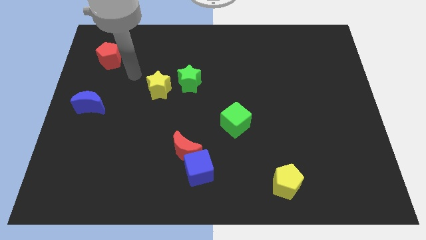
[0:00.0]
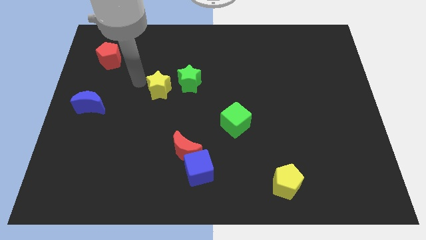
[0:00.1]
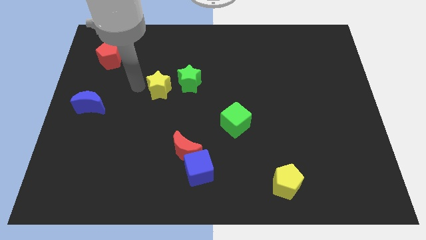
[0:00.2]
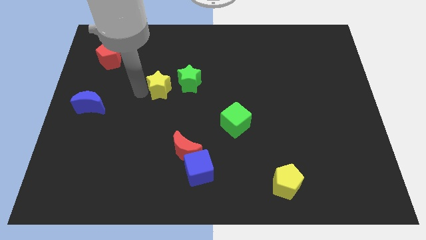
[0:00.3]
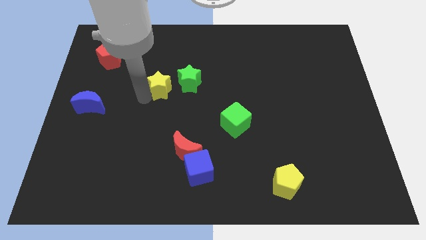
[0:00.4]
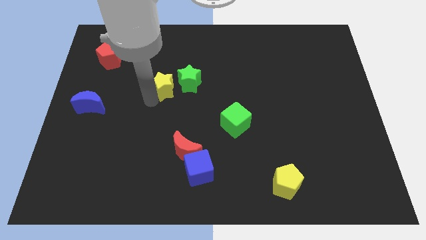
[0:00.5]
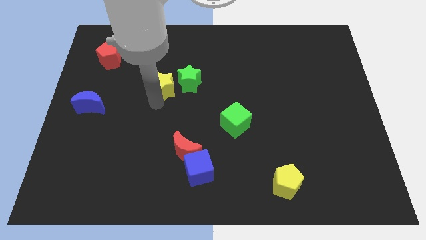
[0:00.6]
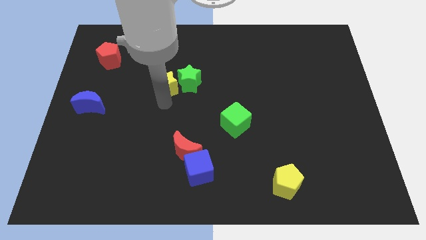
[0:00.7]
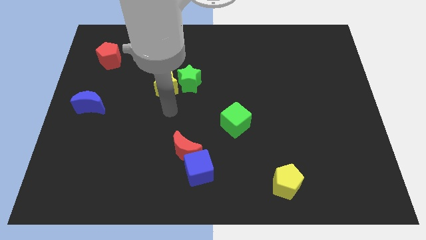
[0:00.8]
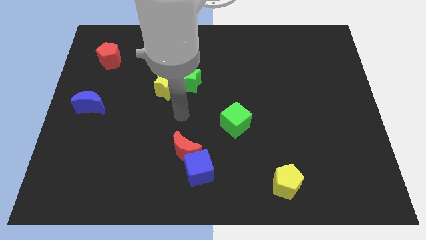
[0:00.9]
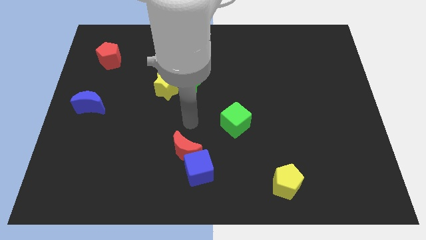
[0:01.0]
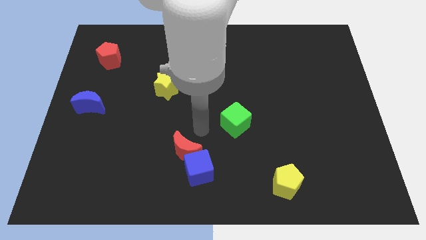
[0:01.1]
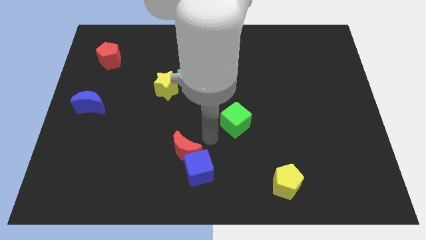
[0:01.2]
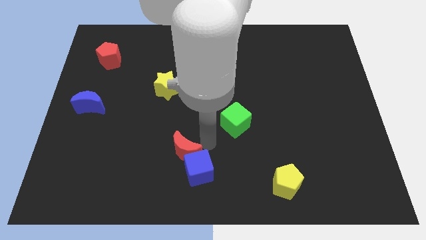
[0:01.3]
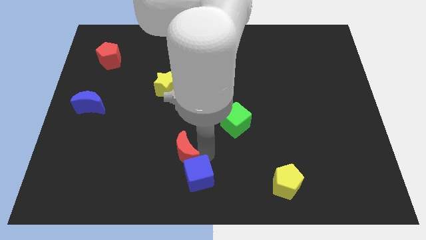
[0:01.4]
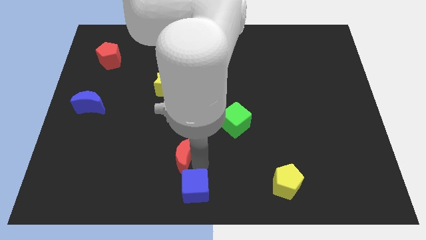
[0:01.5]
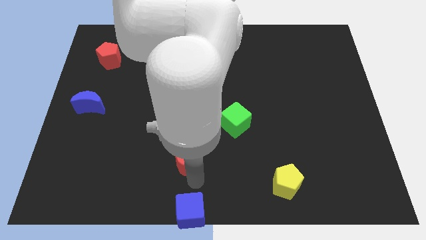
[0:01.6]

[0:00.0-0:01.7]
separate the red moon from the blue cube

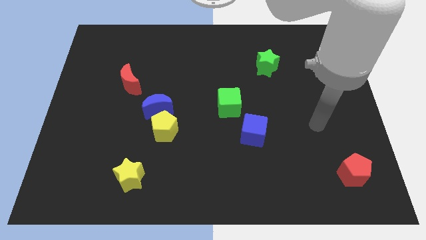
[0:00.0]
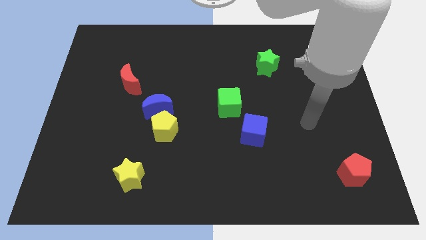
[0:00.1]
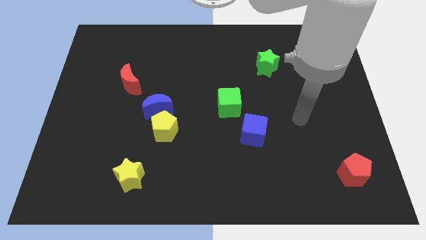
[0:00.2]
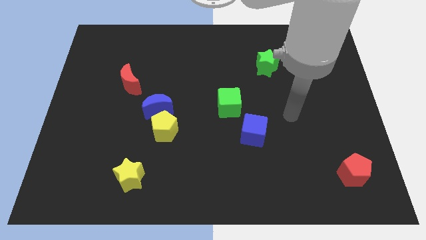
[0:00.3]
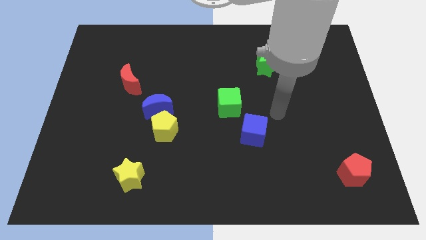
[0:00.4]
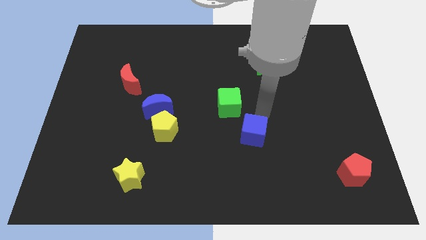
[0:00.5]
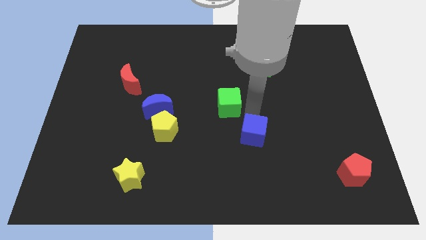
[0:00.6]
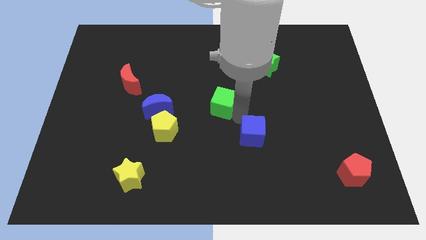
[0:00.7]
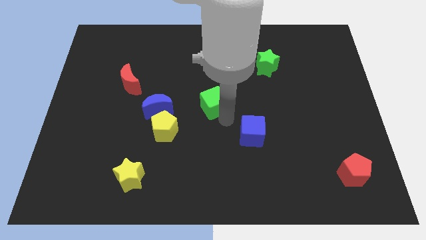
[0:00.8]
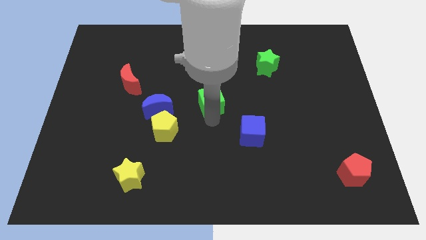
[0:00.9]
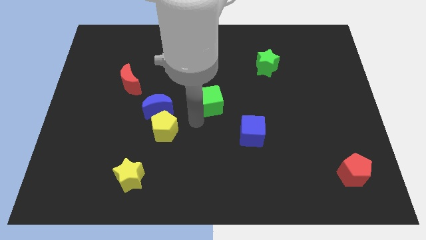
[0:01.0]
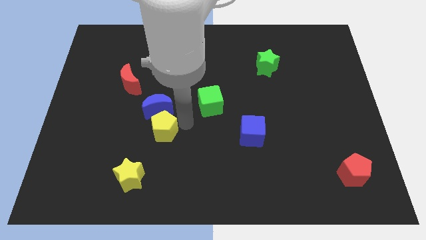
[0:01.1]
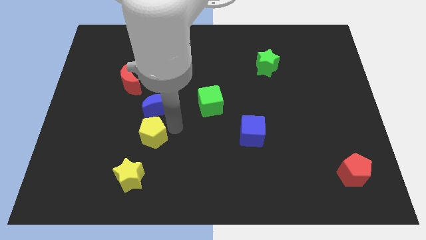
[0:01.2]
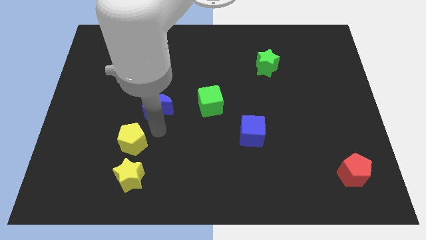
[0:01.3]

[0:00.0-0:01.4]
pull the blue moon apart from the yellow pentagon

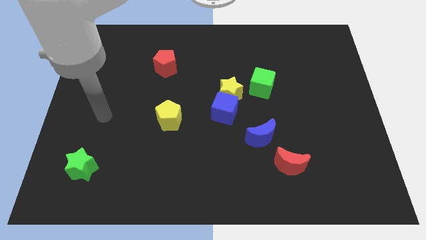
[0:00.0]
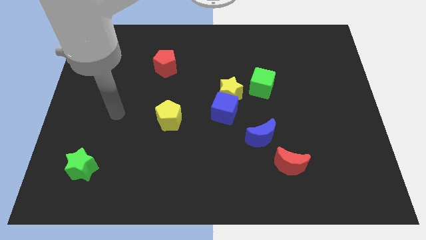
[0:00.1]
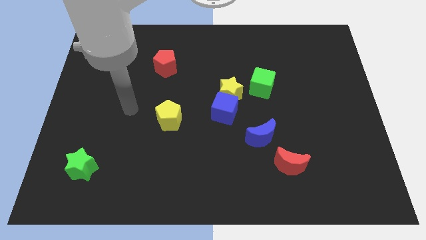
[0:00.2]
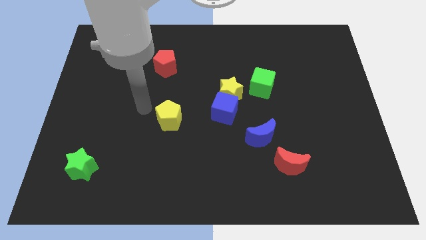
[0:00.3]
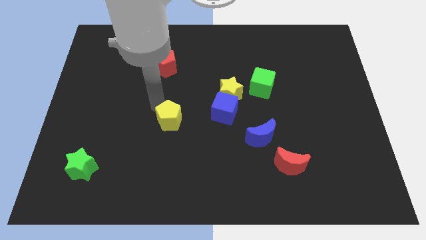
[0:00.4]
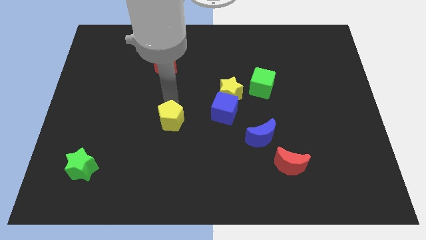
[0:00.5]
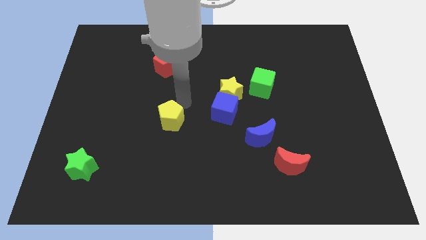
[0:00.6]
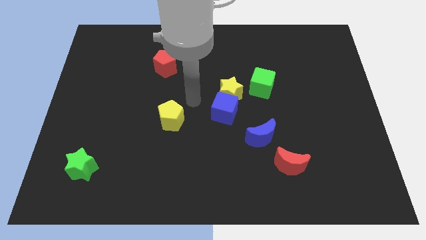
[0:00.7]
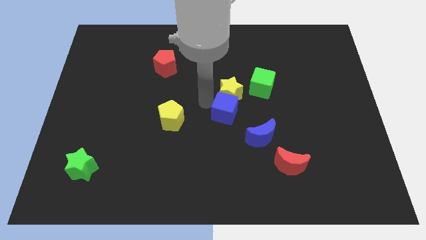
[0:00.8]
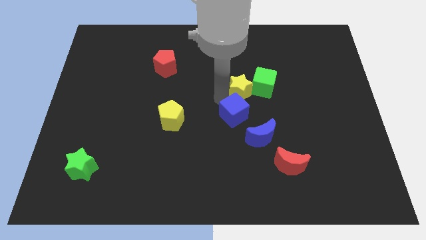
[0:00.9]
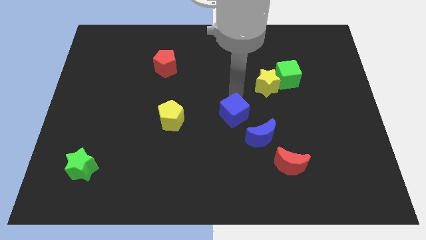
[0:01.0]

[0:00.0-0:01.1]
pull the blue cube apart from the yellow star

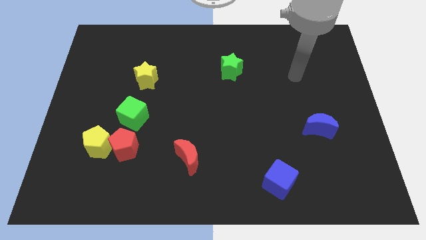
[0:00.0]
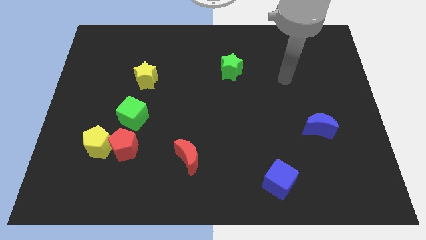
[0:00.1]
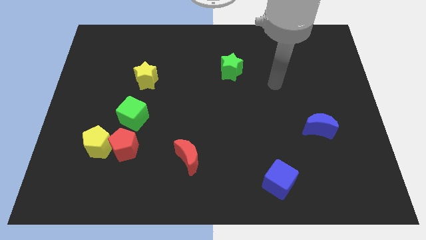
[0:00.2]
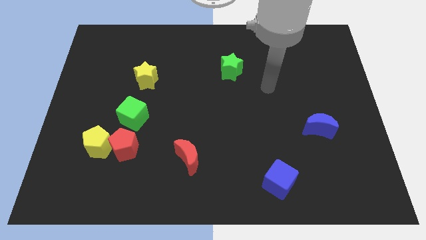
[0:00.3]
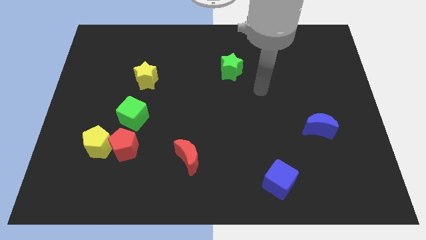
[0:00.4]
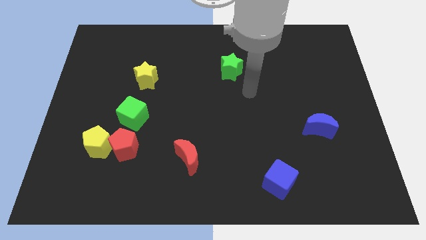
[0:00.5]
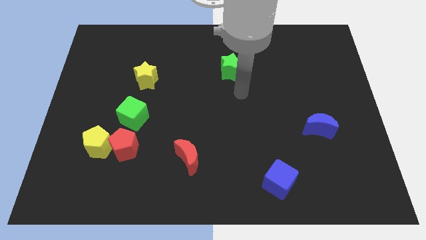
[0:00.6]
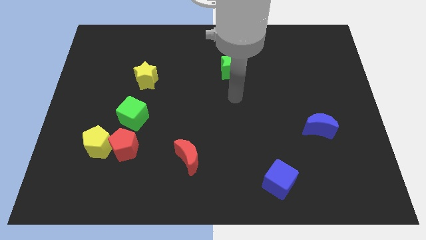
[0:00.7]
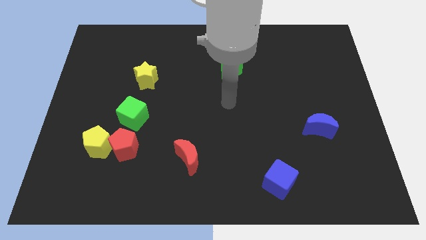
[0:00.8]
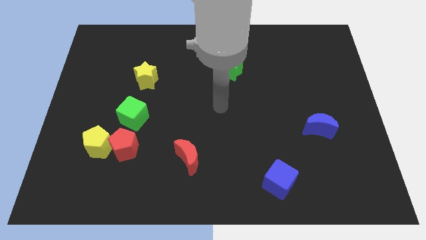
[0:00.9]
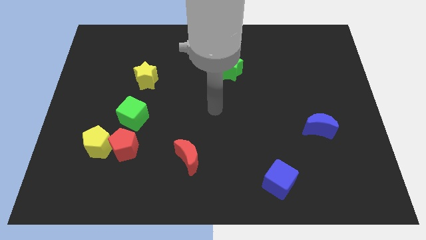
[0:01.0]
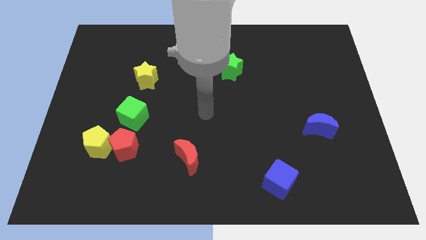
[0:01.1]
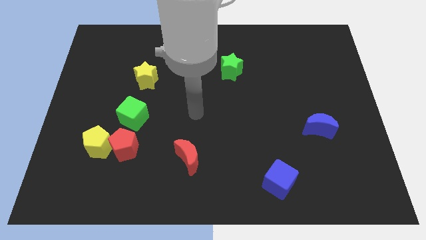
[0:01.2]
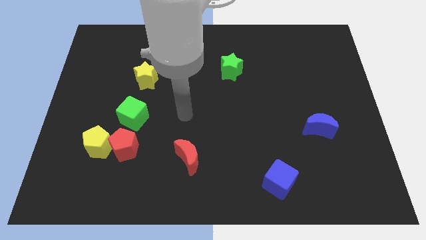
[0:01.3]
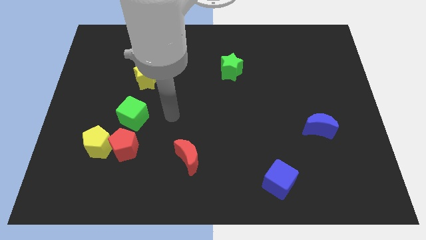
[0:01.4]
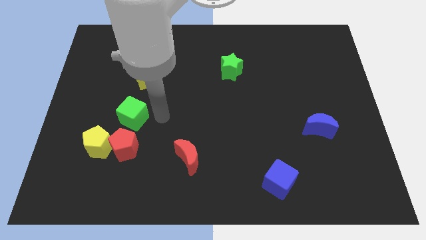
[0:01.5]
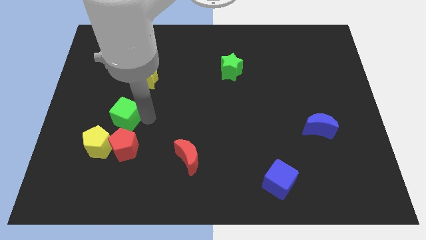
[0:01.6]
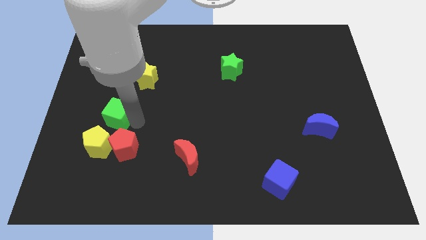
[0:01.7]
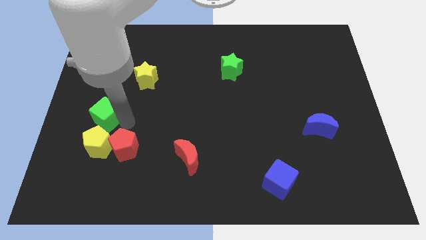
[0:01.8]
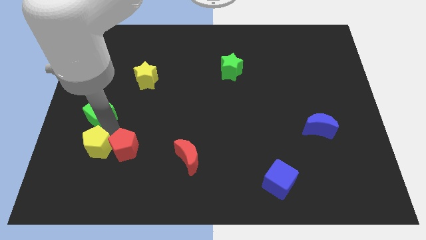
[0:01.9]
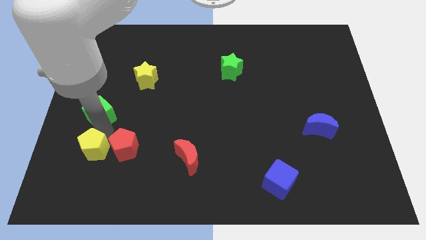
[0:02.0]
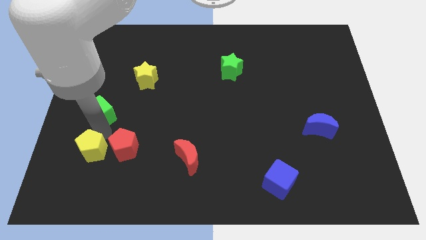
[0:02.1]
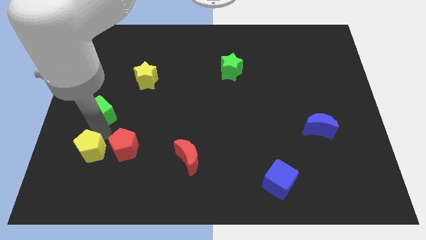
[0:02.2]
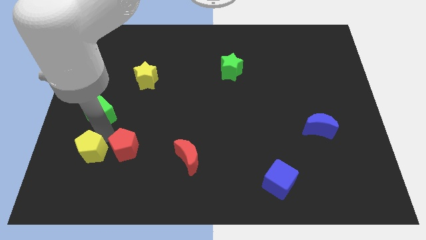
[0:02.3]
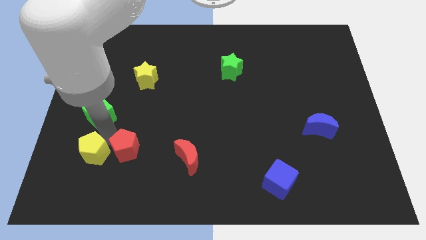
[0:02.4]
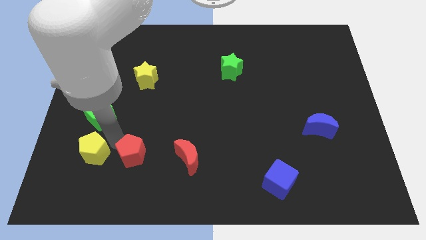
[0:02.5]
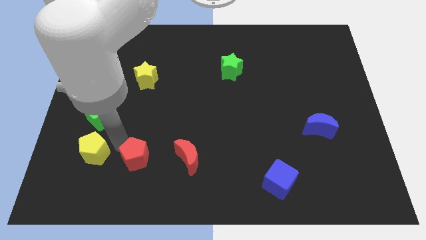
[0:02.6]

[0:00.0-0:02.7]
separate the red pentagon from the yellow pentagon and green cube

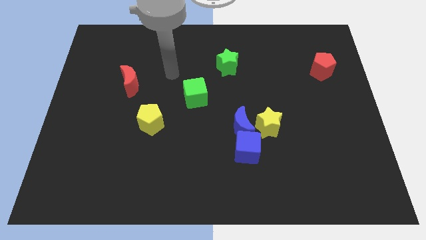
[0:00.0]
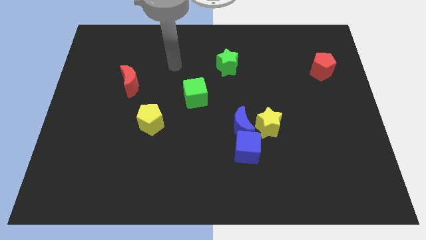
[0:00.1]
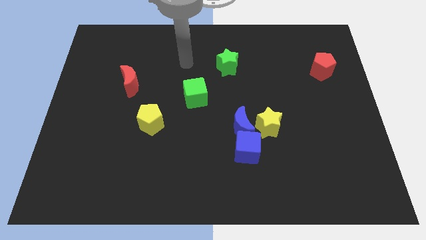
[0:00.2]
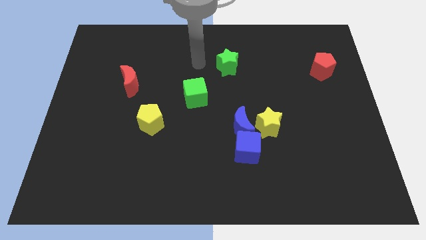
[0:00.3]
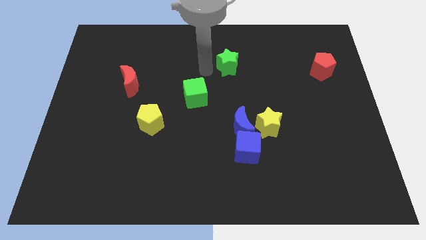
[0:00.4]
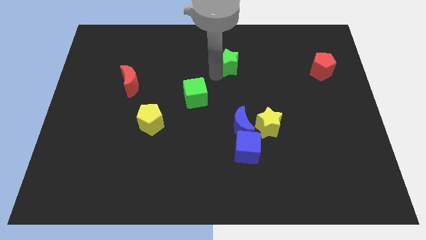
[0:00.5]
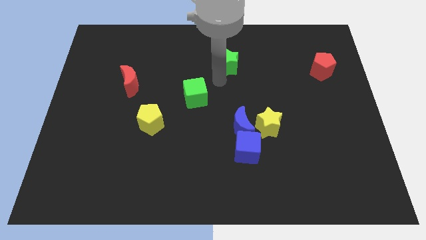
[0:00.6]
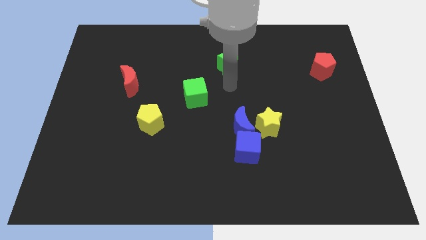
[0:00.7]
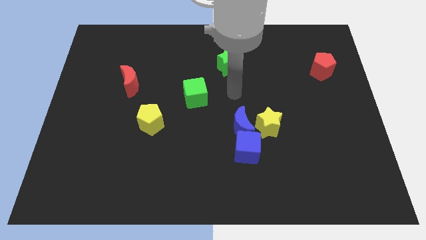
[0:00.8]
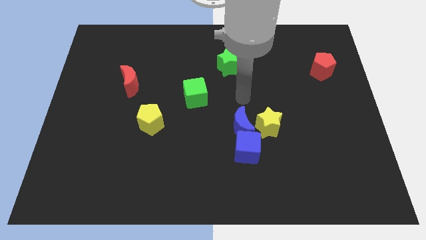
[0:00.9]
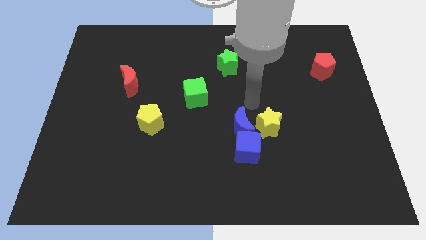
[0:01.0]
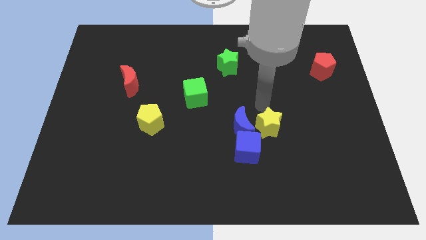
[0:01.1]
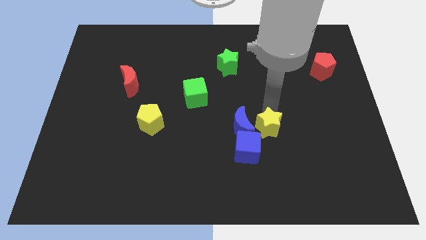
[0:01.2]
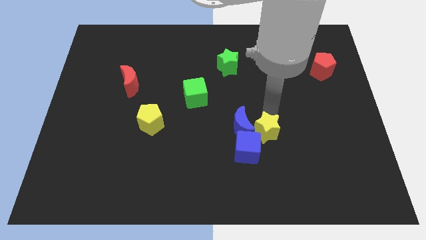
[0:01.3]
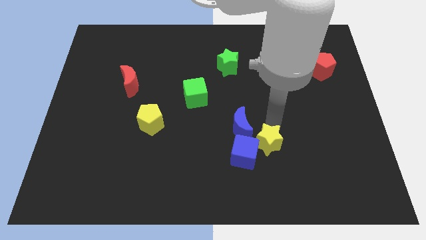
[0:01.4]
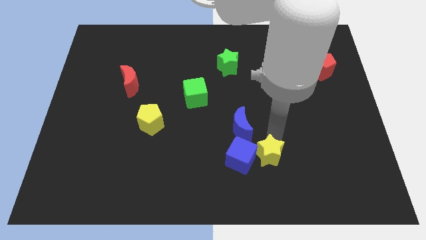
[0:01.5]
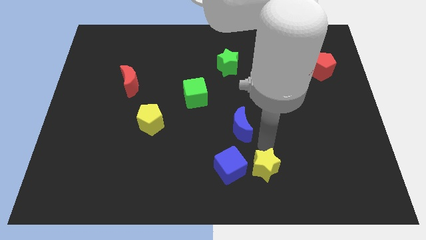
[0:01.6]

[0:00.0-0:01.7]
pull the blue moon apart from the blue cube and yellow star

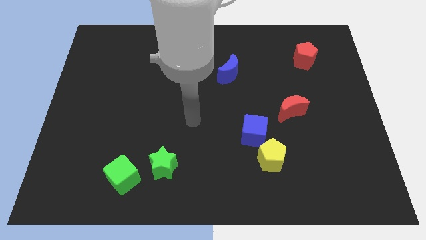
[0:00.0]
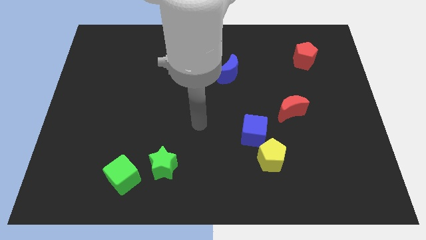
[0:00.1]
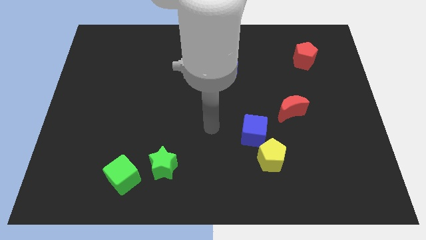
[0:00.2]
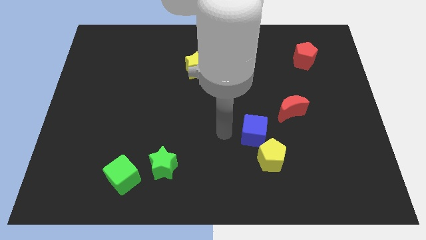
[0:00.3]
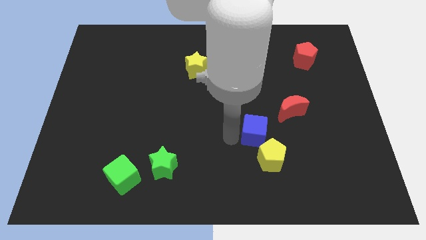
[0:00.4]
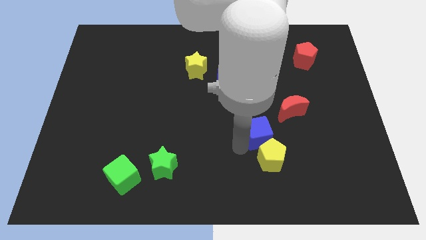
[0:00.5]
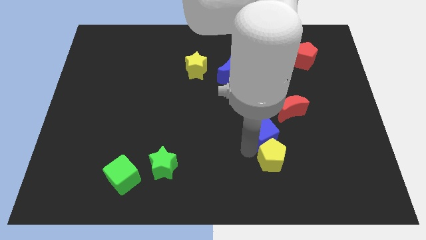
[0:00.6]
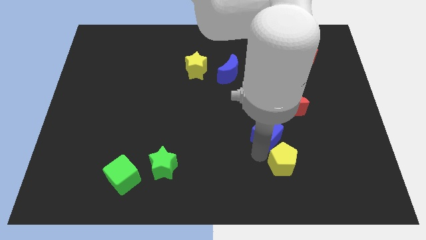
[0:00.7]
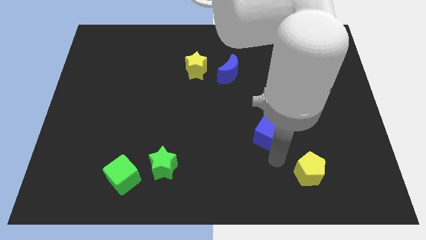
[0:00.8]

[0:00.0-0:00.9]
separate the blue cube from the yellow pentagon
